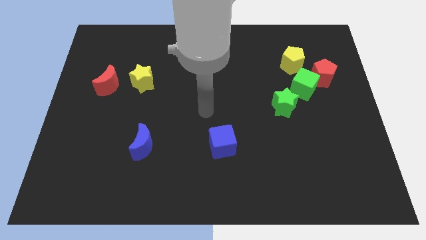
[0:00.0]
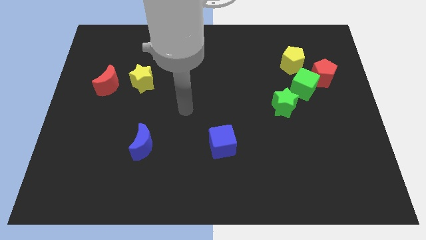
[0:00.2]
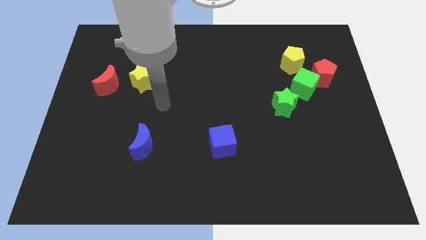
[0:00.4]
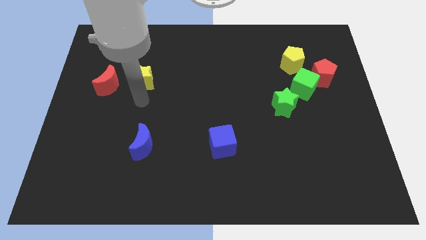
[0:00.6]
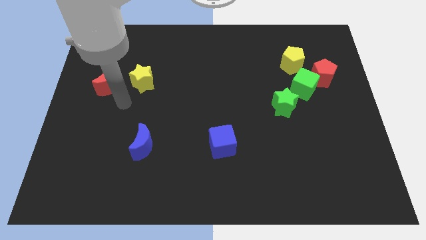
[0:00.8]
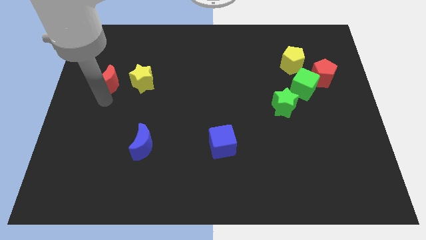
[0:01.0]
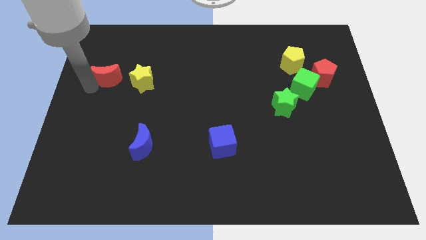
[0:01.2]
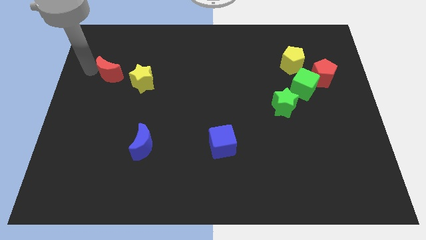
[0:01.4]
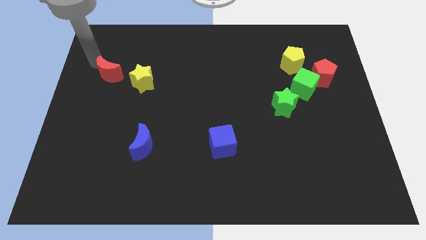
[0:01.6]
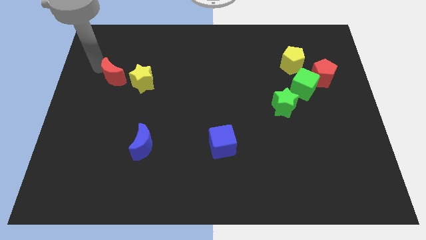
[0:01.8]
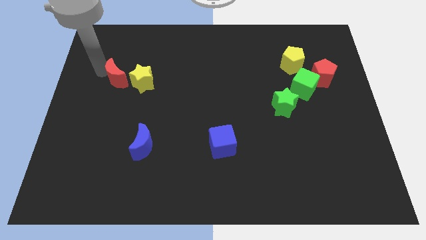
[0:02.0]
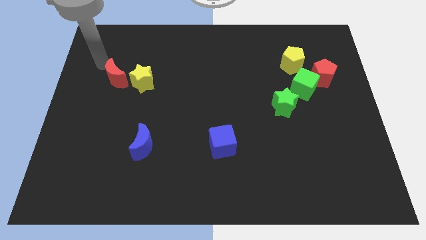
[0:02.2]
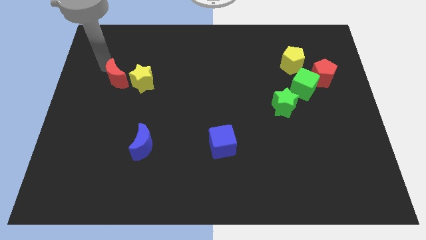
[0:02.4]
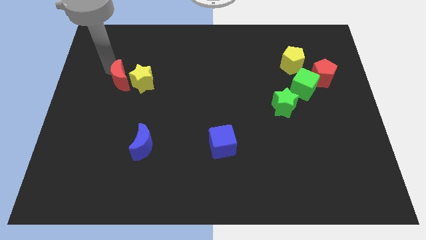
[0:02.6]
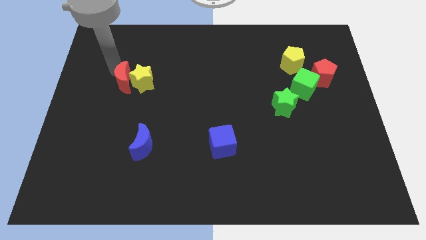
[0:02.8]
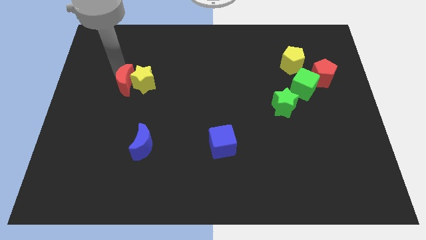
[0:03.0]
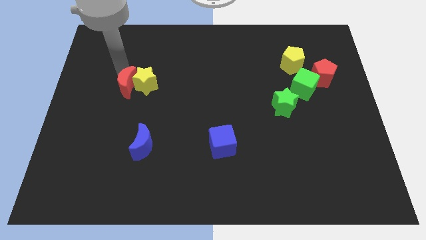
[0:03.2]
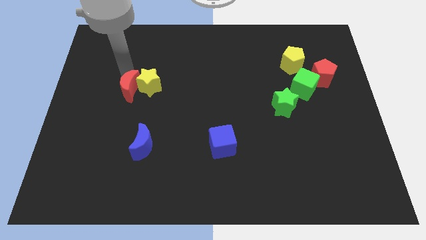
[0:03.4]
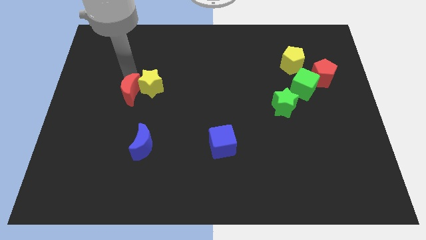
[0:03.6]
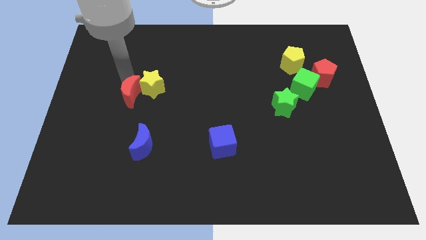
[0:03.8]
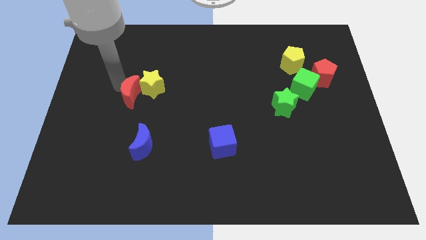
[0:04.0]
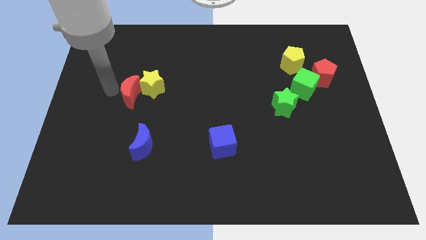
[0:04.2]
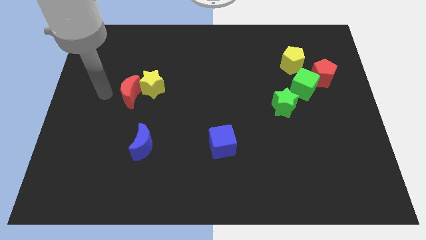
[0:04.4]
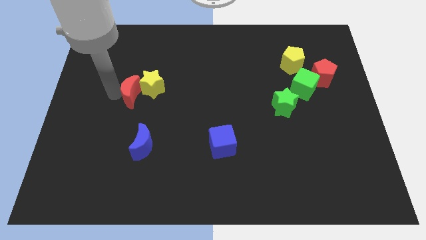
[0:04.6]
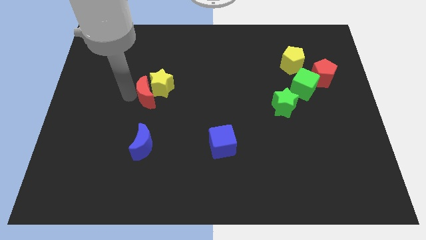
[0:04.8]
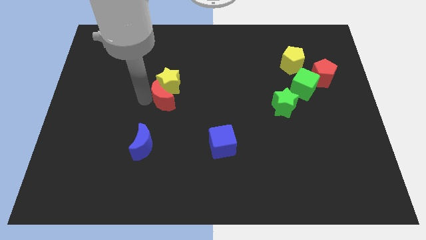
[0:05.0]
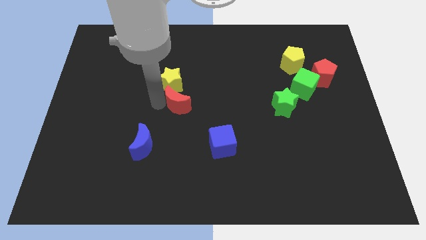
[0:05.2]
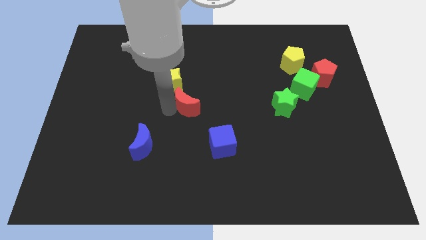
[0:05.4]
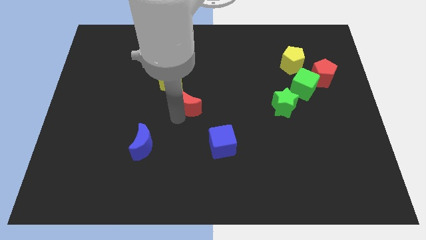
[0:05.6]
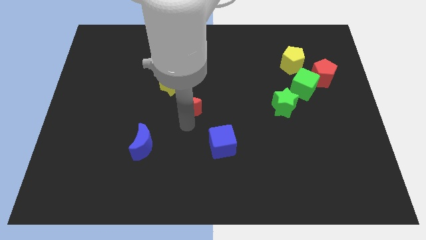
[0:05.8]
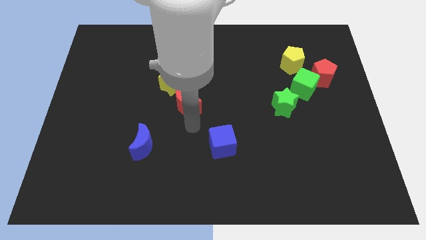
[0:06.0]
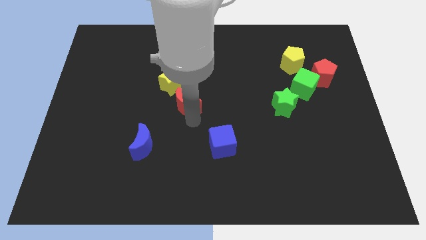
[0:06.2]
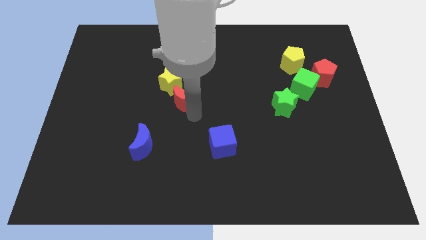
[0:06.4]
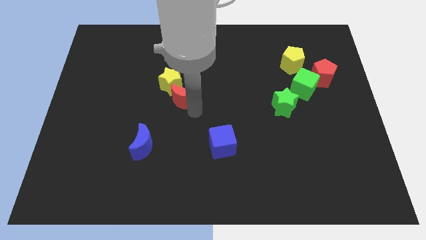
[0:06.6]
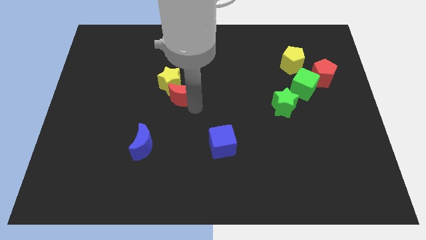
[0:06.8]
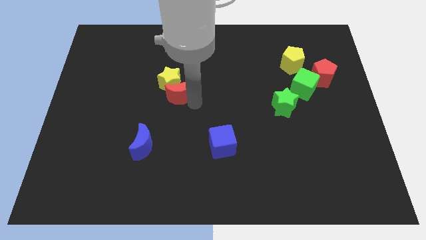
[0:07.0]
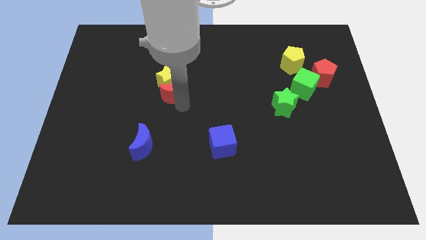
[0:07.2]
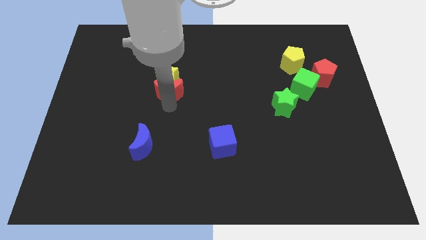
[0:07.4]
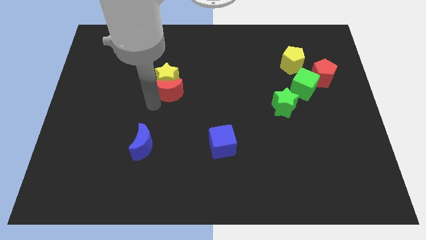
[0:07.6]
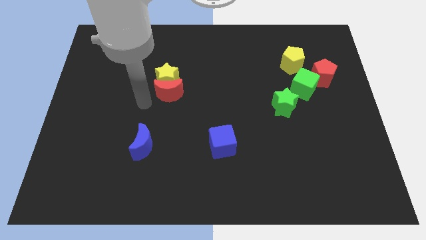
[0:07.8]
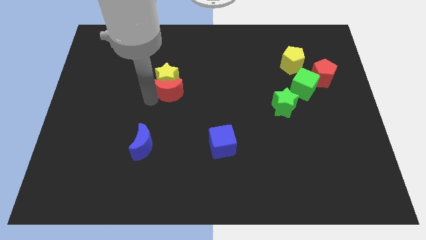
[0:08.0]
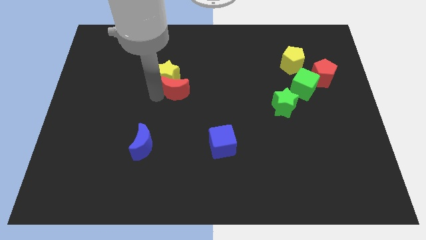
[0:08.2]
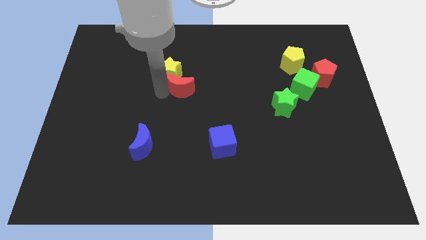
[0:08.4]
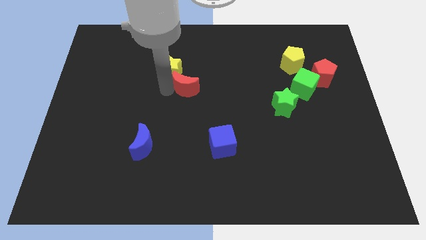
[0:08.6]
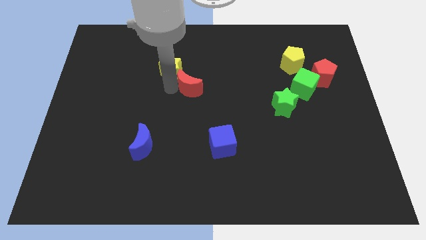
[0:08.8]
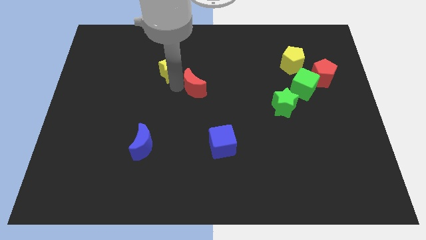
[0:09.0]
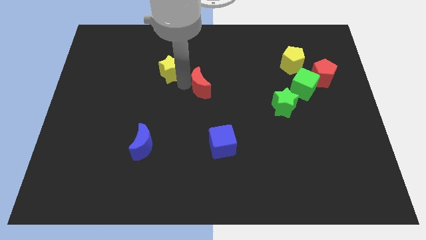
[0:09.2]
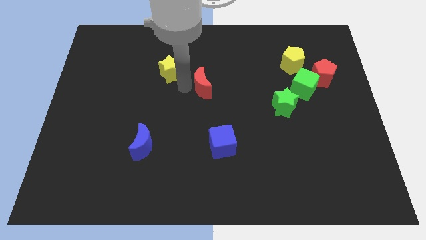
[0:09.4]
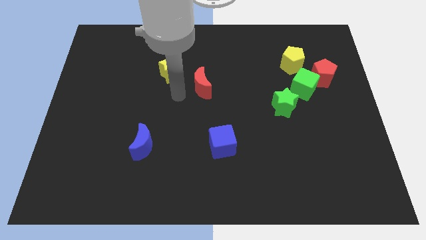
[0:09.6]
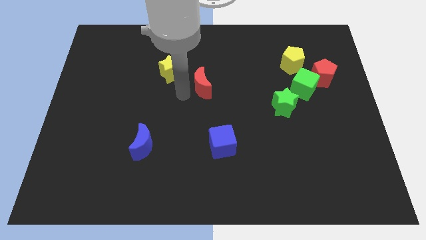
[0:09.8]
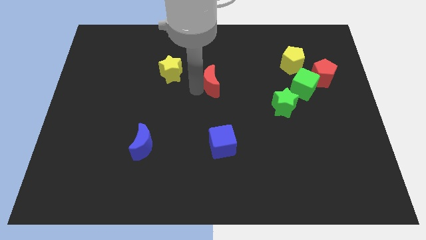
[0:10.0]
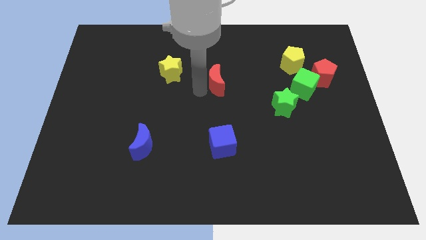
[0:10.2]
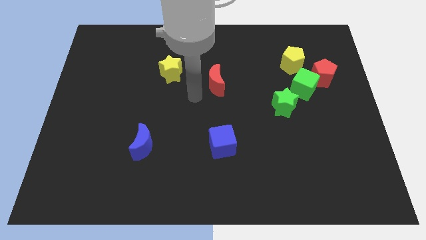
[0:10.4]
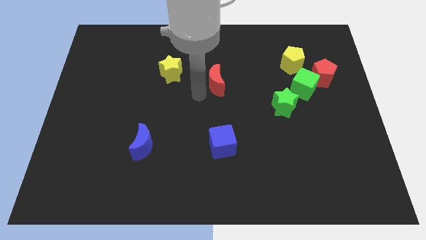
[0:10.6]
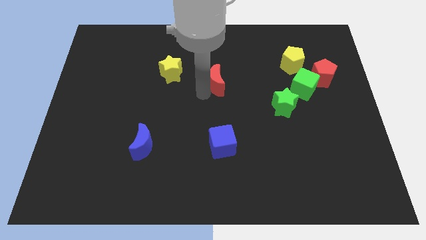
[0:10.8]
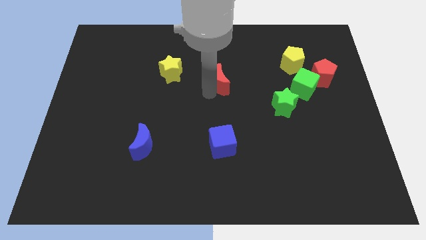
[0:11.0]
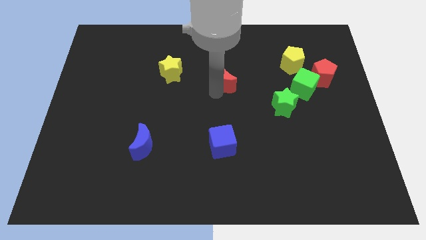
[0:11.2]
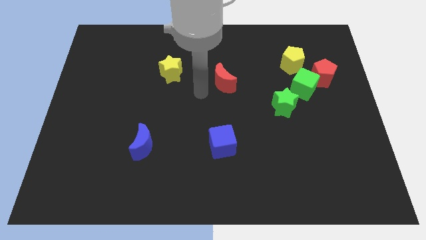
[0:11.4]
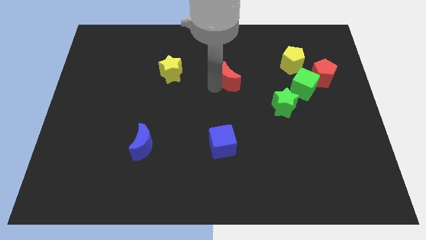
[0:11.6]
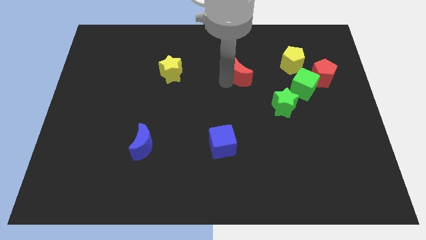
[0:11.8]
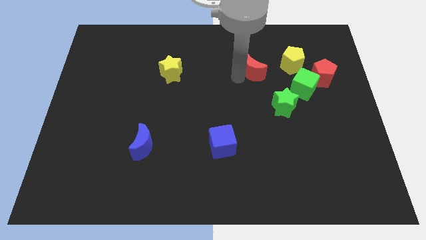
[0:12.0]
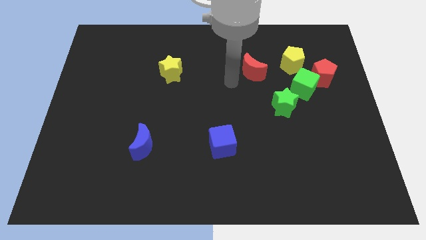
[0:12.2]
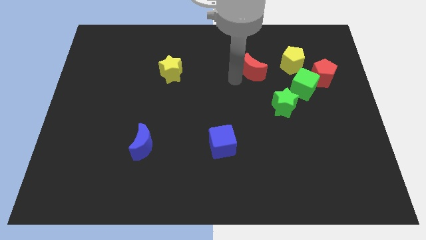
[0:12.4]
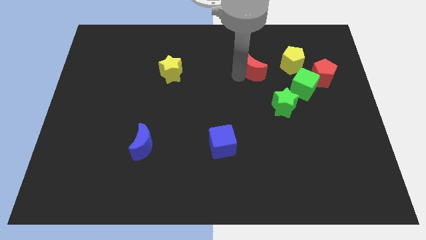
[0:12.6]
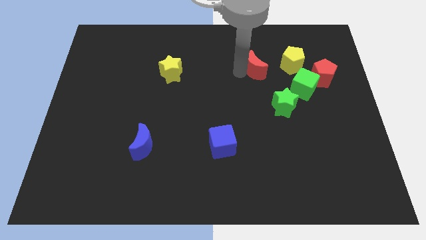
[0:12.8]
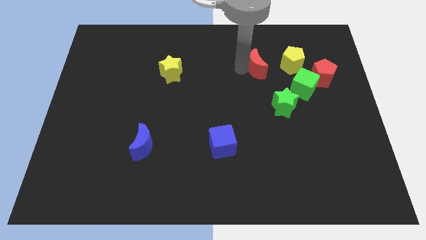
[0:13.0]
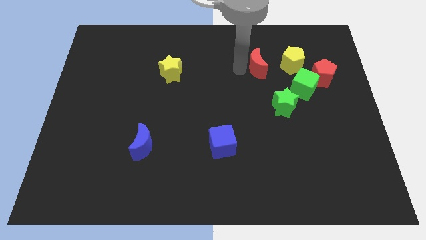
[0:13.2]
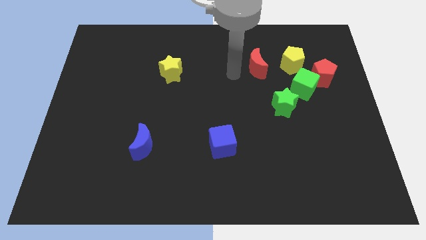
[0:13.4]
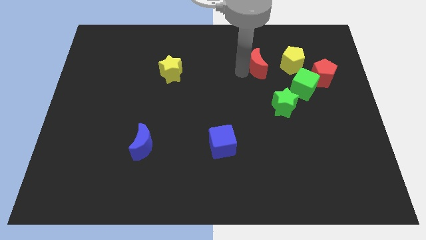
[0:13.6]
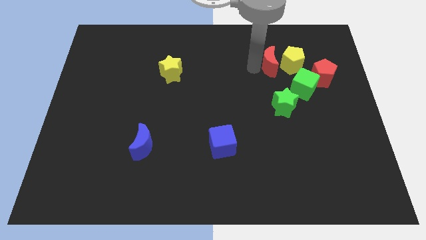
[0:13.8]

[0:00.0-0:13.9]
slide the red moon close to the yellow pentagon

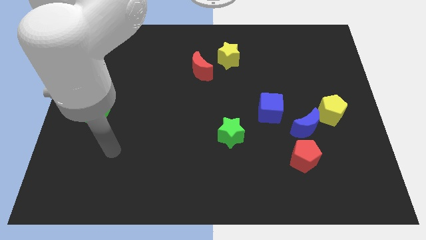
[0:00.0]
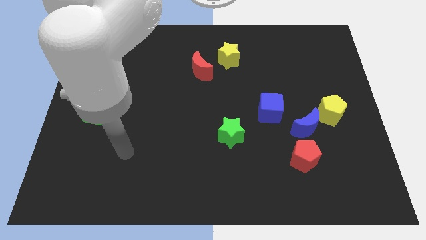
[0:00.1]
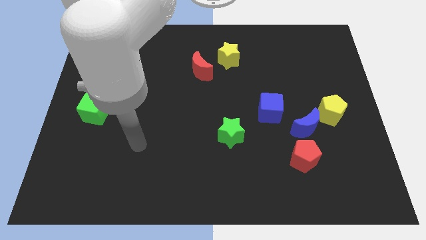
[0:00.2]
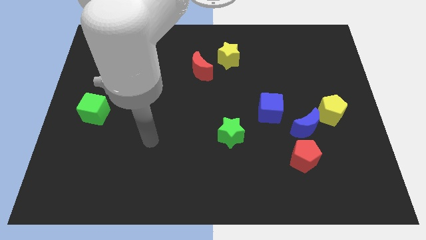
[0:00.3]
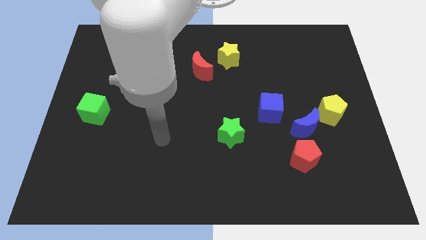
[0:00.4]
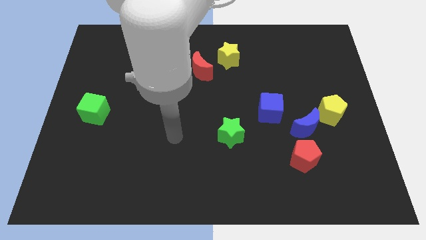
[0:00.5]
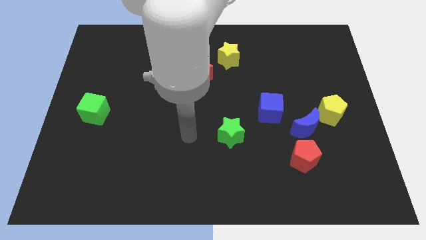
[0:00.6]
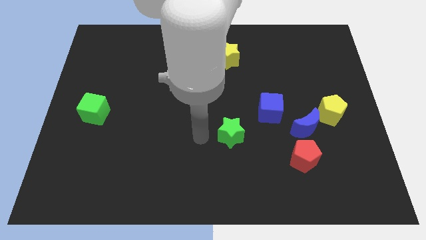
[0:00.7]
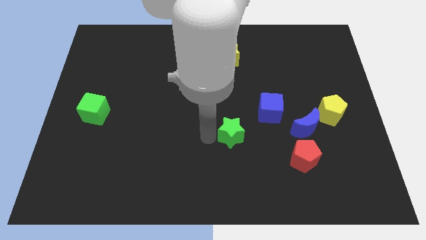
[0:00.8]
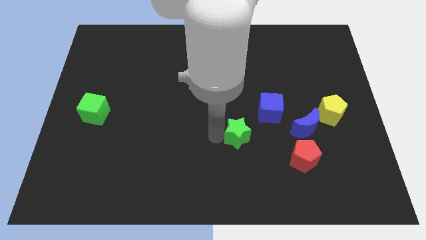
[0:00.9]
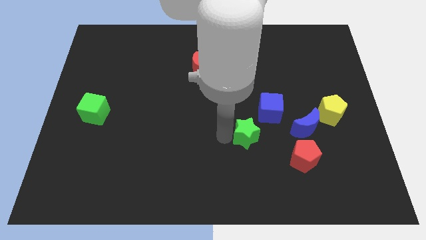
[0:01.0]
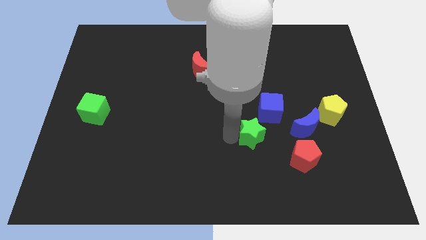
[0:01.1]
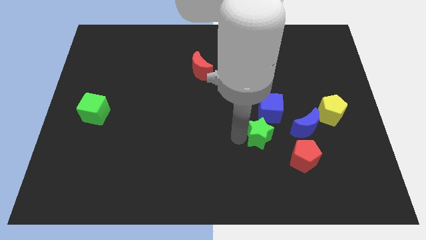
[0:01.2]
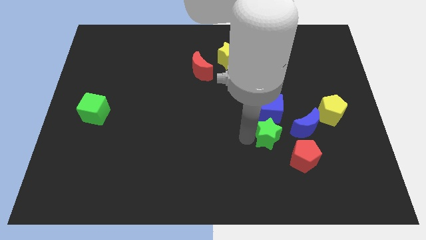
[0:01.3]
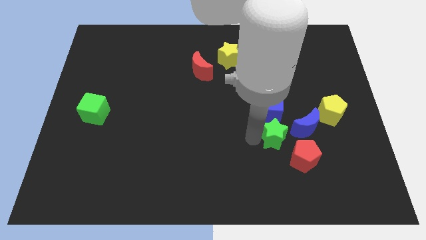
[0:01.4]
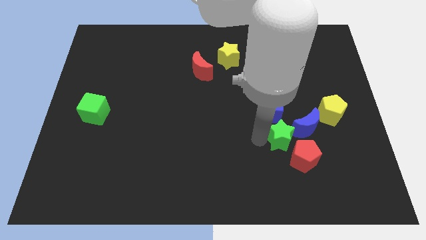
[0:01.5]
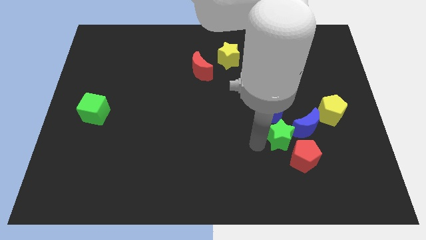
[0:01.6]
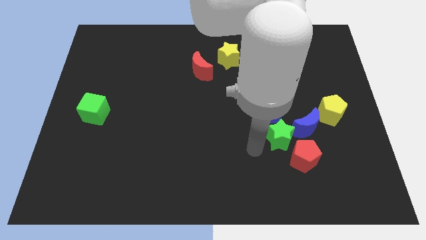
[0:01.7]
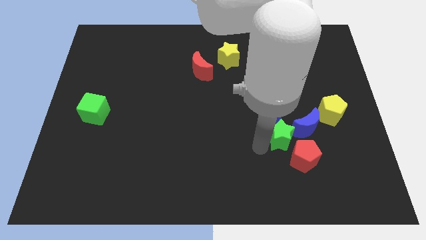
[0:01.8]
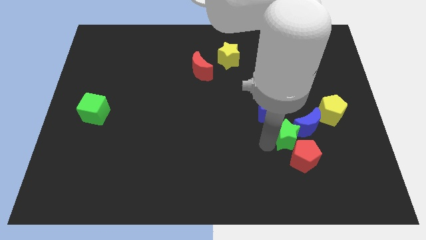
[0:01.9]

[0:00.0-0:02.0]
slide the green star next to the blue moon
